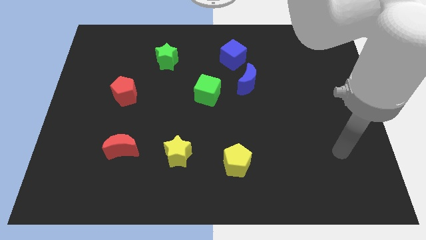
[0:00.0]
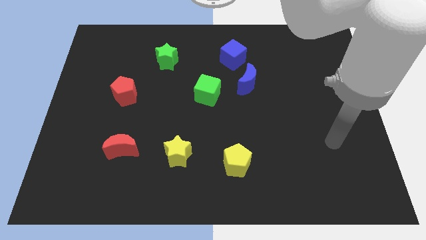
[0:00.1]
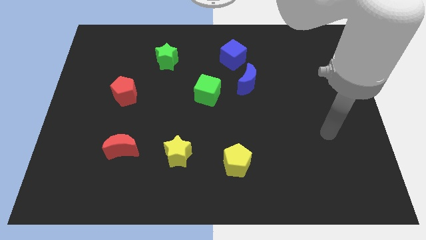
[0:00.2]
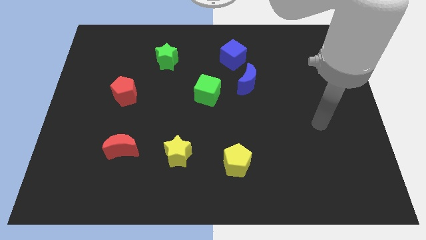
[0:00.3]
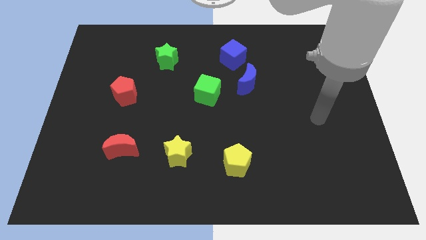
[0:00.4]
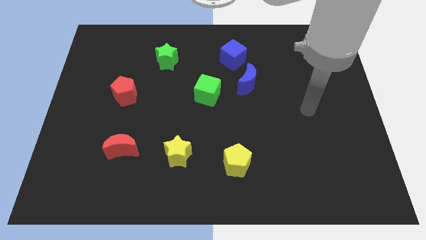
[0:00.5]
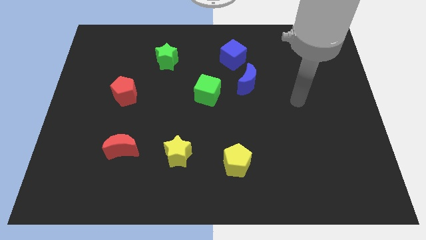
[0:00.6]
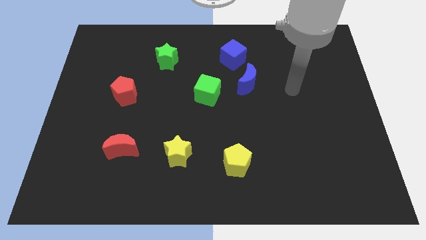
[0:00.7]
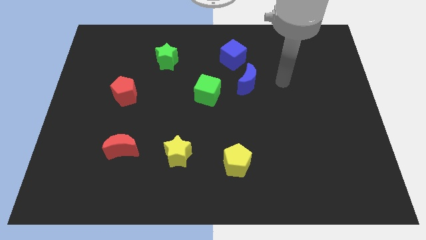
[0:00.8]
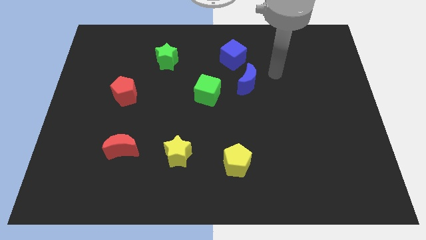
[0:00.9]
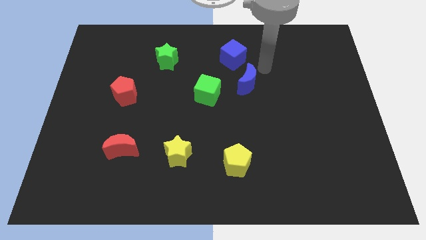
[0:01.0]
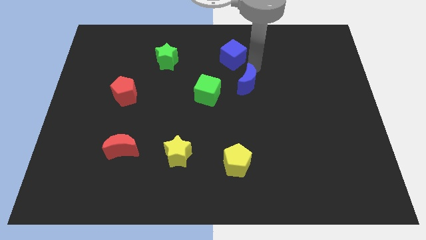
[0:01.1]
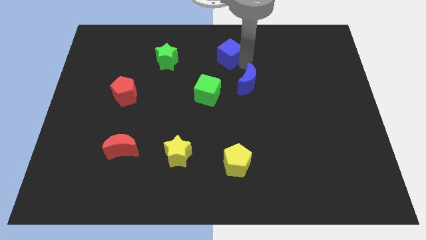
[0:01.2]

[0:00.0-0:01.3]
move the blue moon away from the blue cube

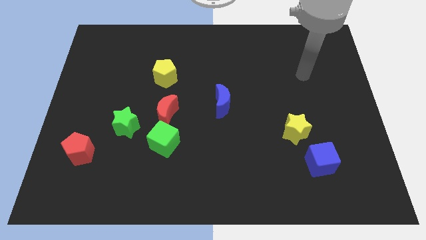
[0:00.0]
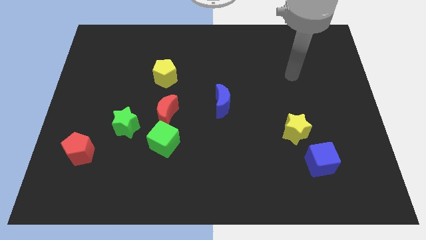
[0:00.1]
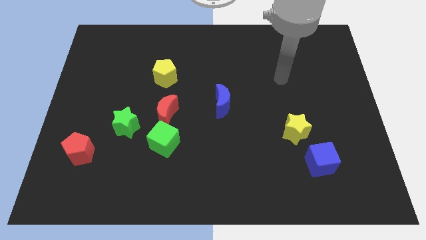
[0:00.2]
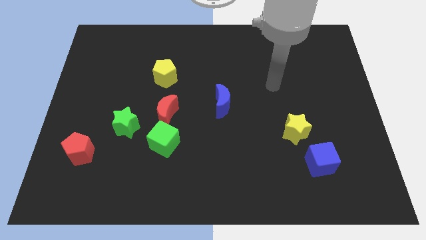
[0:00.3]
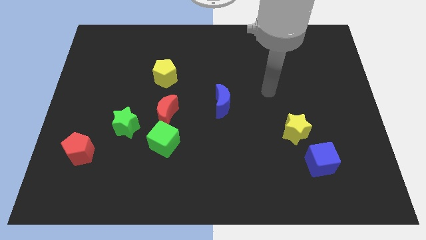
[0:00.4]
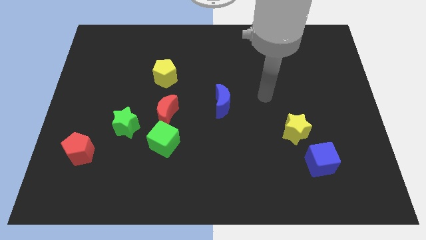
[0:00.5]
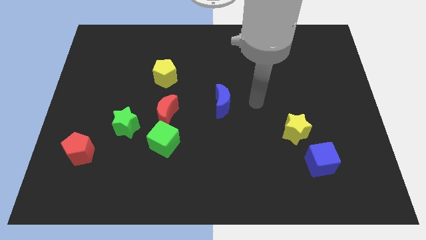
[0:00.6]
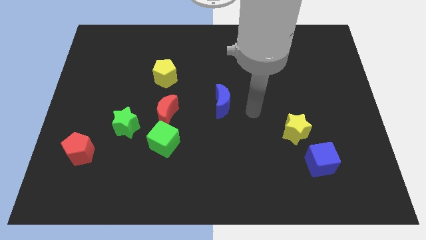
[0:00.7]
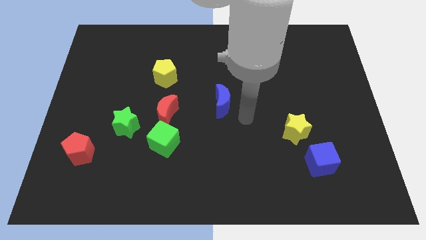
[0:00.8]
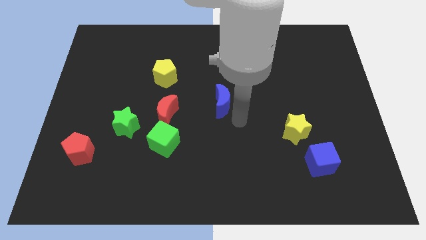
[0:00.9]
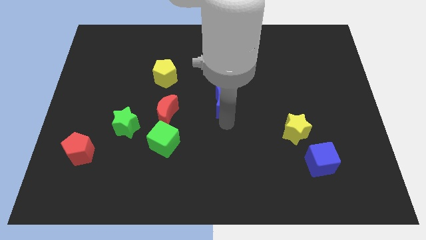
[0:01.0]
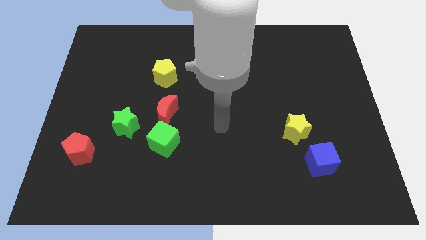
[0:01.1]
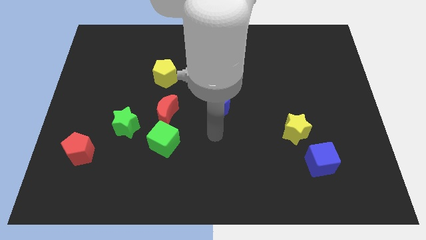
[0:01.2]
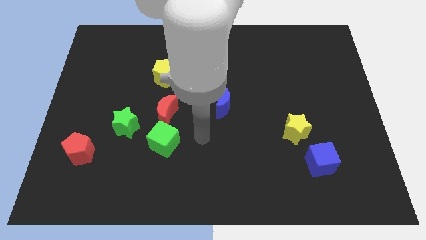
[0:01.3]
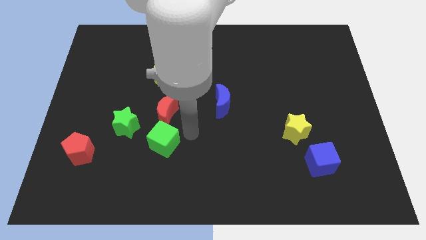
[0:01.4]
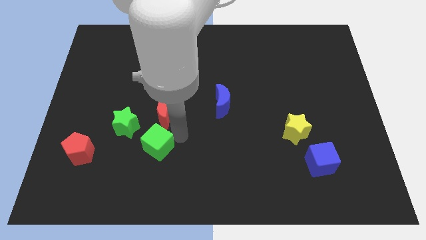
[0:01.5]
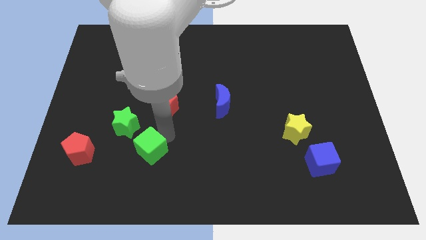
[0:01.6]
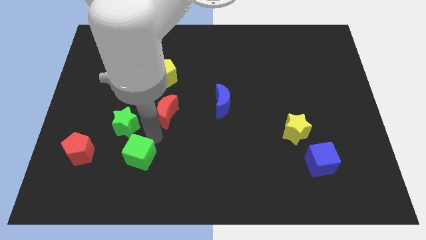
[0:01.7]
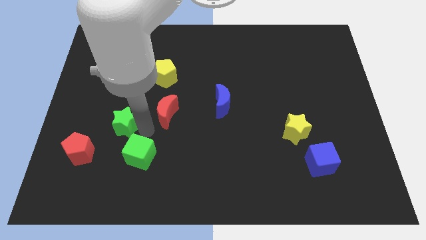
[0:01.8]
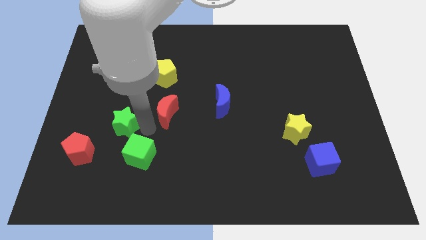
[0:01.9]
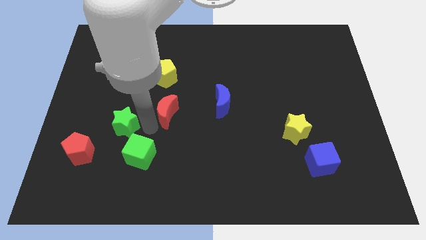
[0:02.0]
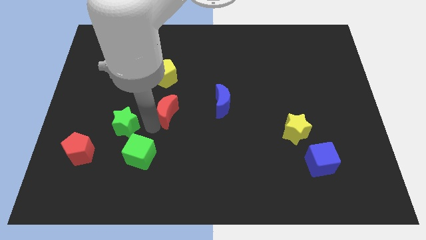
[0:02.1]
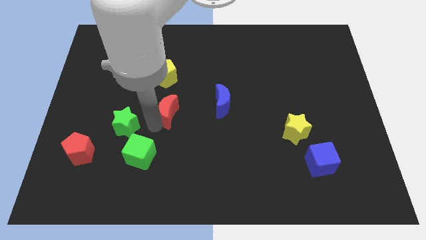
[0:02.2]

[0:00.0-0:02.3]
separate the red moon from the green cube and green star

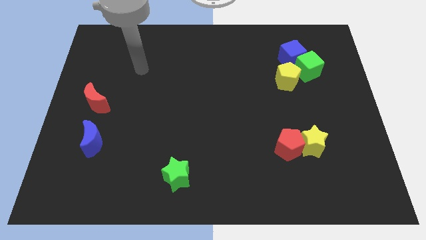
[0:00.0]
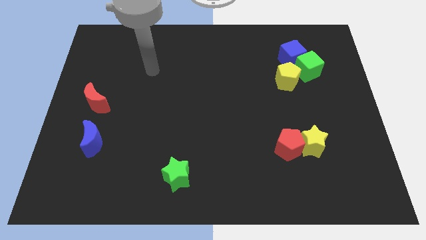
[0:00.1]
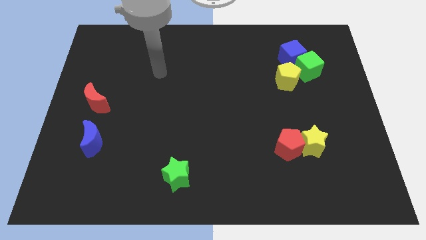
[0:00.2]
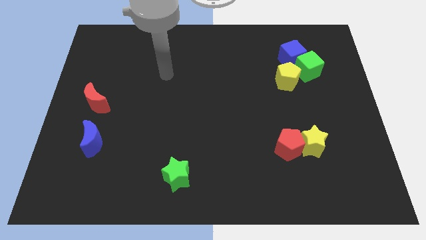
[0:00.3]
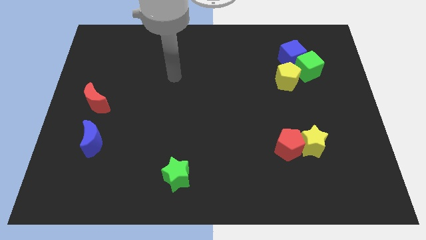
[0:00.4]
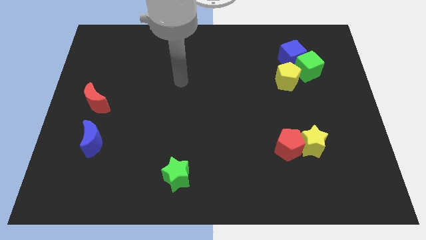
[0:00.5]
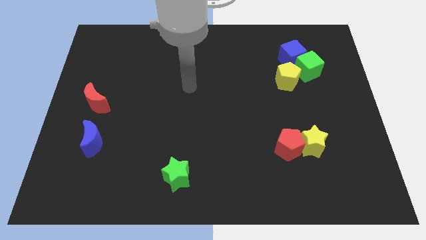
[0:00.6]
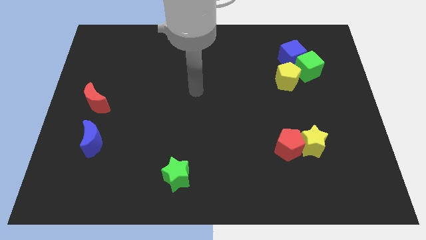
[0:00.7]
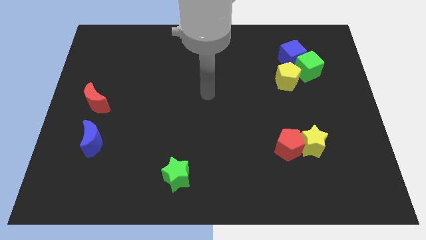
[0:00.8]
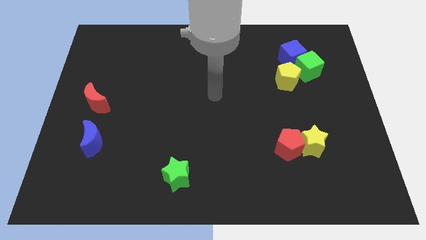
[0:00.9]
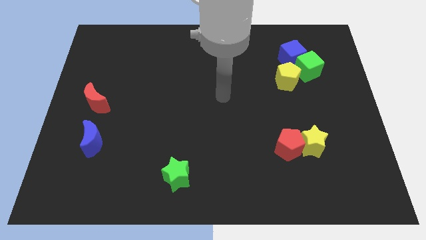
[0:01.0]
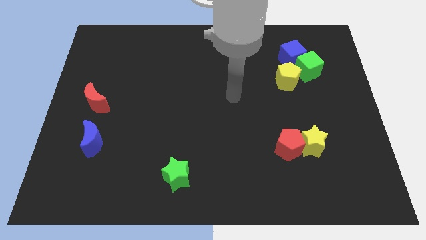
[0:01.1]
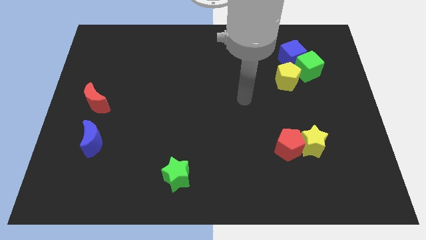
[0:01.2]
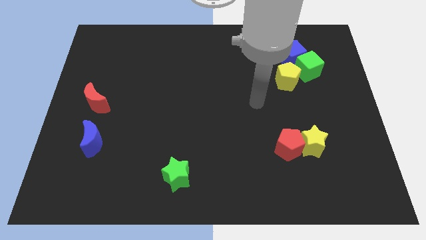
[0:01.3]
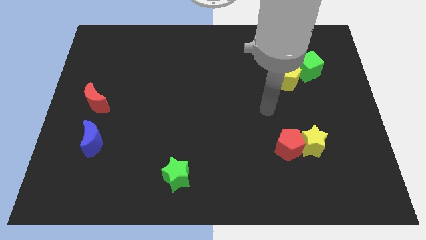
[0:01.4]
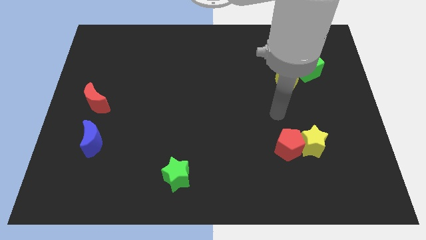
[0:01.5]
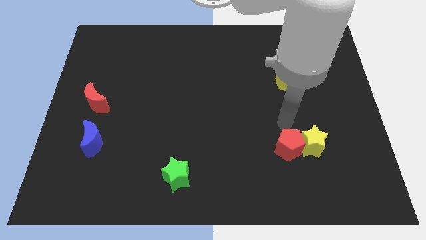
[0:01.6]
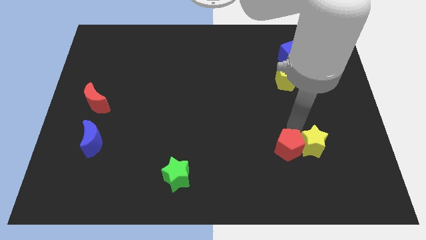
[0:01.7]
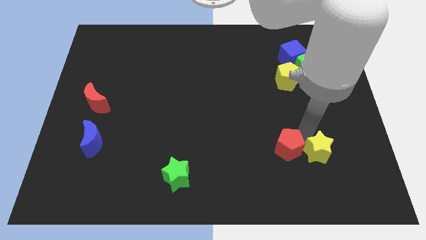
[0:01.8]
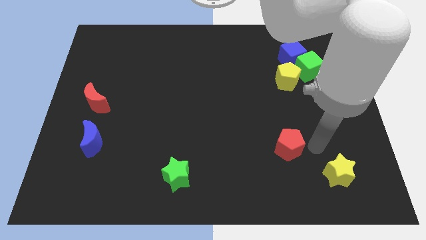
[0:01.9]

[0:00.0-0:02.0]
pull the red pentagon apart from the yellow star

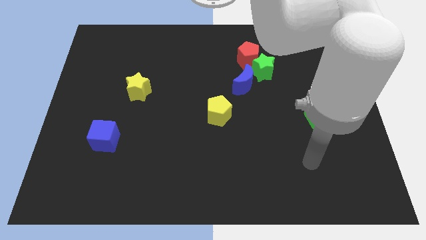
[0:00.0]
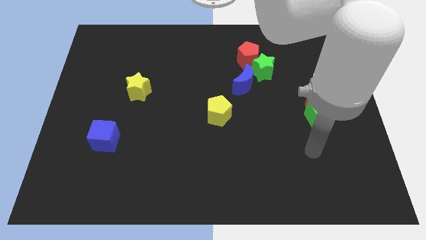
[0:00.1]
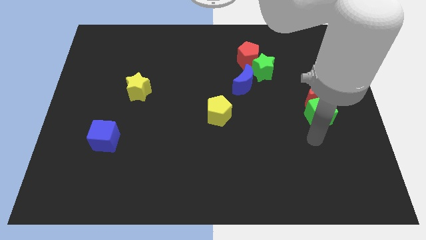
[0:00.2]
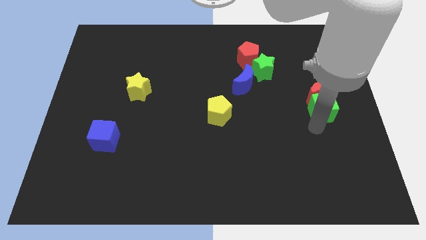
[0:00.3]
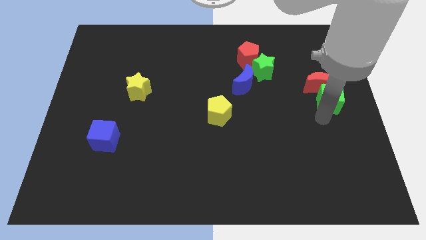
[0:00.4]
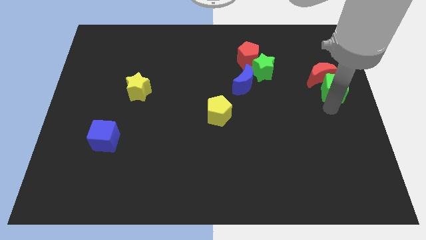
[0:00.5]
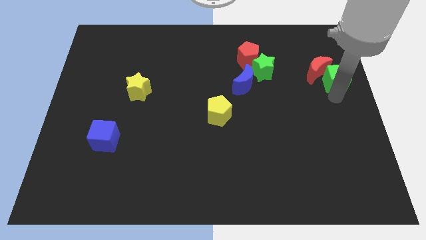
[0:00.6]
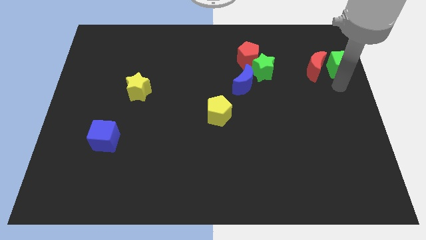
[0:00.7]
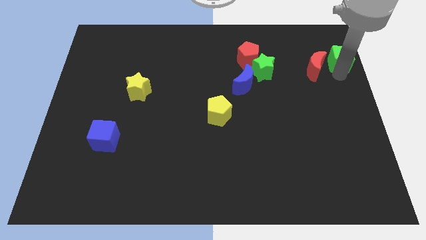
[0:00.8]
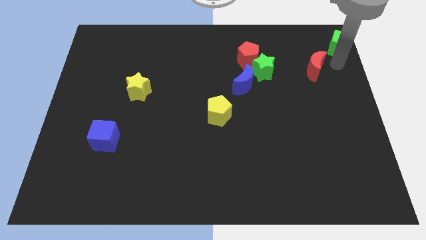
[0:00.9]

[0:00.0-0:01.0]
pull the red moon apart from the green cube

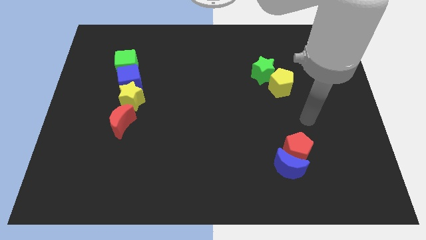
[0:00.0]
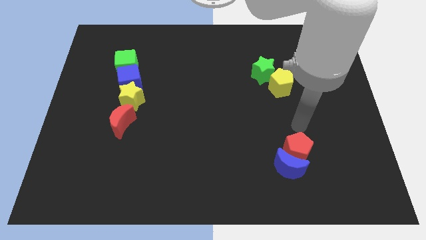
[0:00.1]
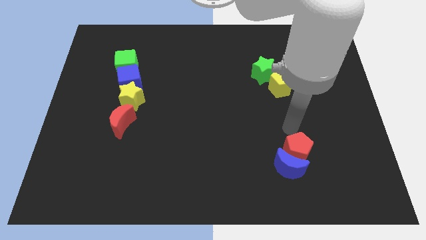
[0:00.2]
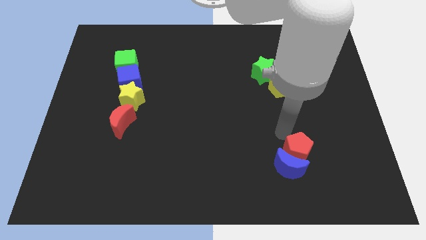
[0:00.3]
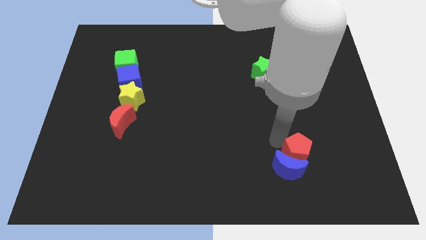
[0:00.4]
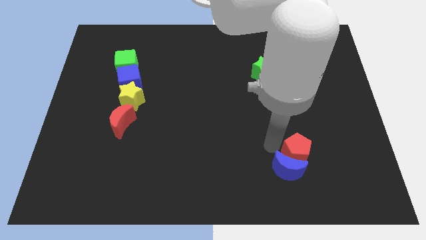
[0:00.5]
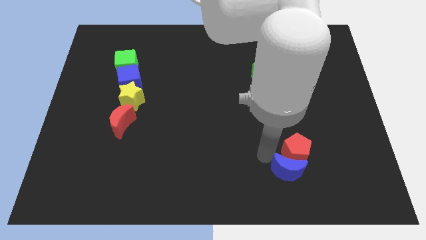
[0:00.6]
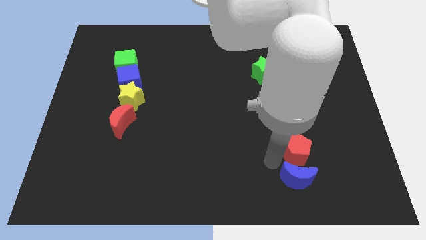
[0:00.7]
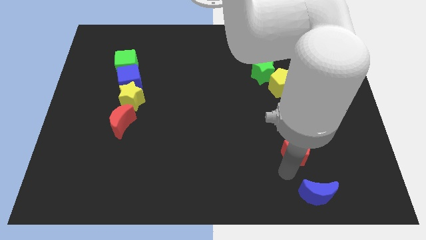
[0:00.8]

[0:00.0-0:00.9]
move the red pentagon away from the blue moon

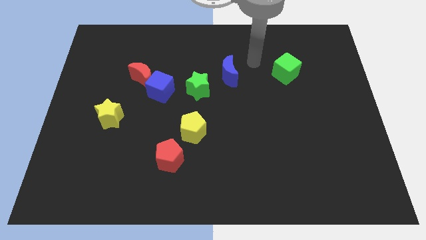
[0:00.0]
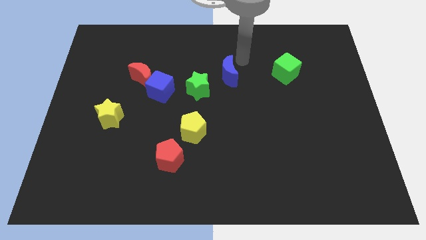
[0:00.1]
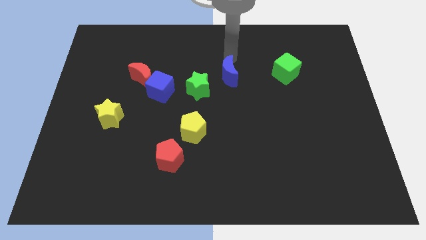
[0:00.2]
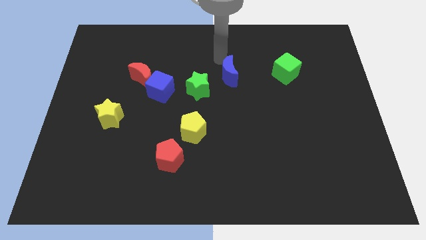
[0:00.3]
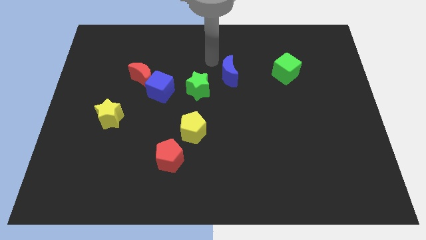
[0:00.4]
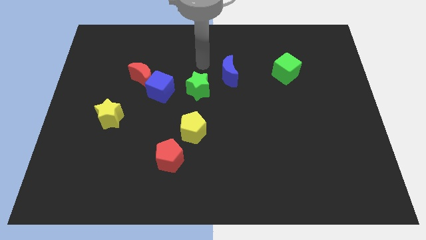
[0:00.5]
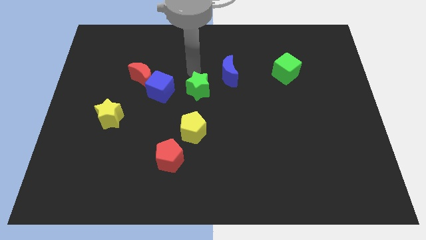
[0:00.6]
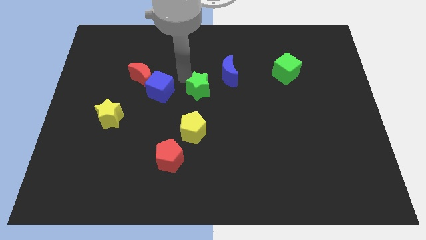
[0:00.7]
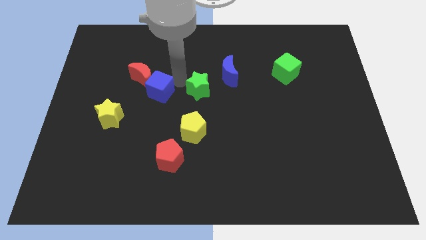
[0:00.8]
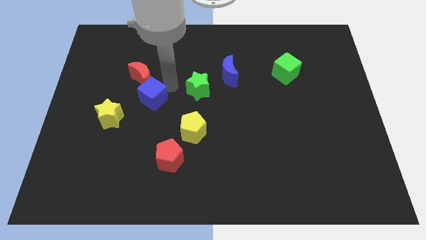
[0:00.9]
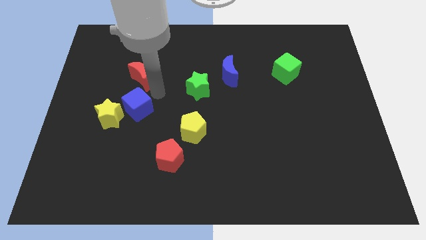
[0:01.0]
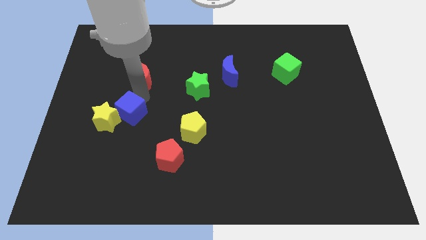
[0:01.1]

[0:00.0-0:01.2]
pull the red moon apart from the blue cube

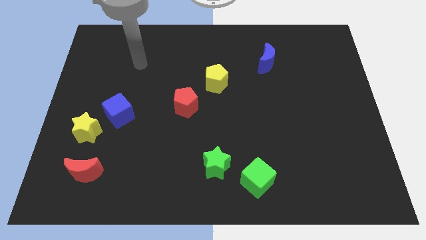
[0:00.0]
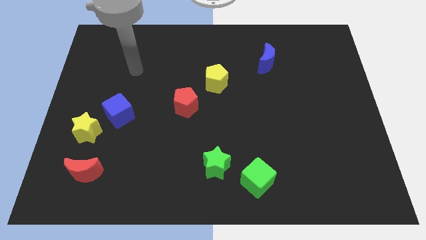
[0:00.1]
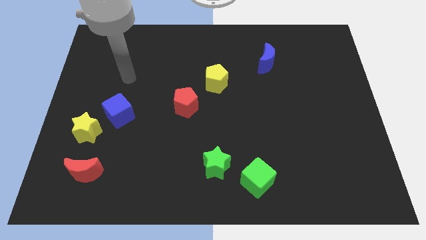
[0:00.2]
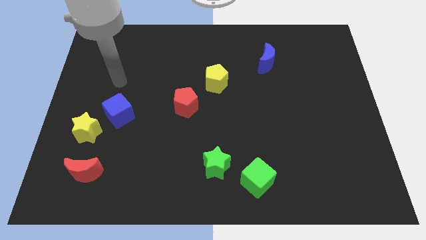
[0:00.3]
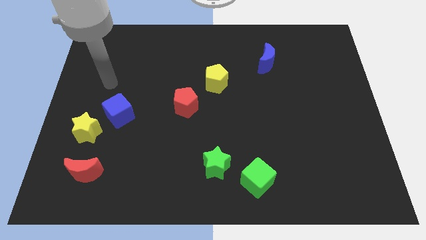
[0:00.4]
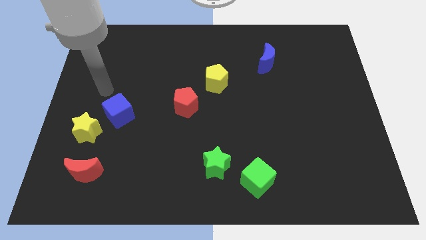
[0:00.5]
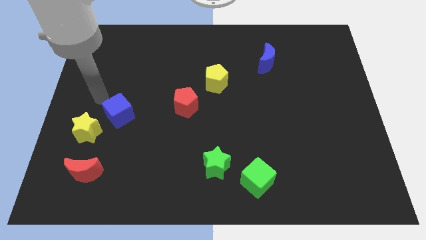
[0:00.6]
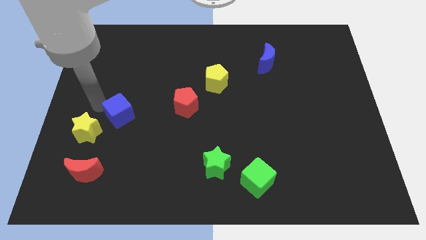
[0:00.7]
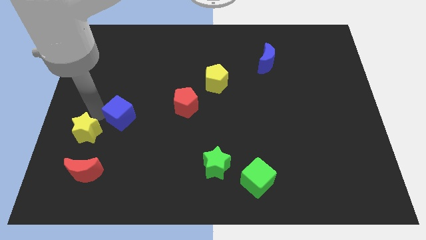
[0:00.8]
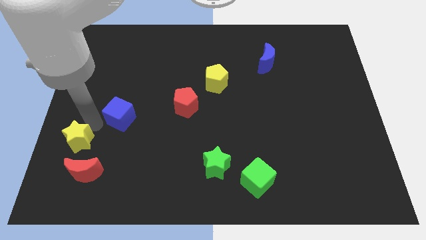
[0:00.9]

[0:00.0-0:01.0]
pull the blue cube apart from the yellow star
